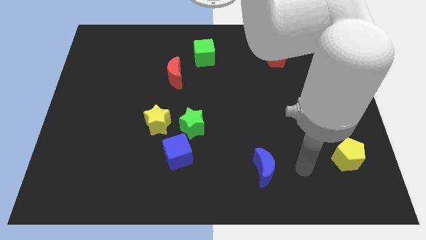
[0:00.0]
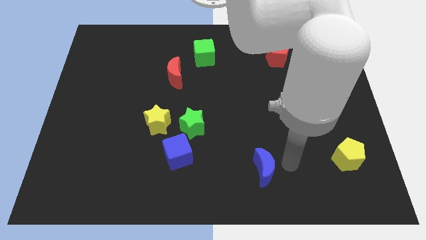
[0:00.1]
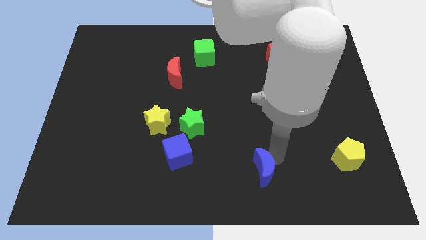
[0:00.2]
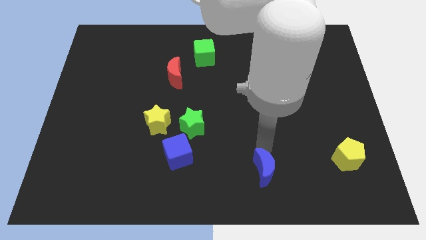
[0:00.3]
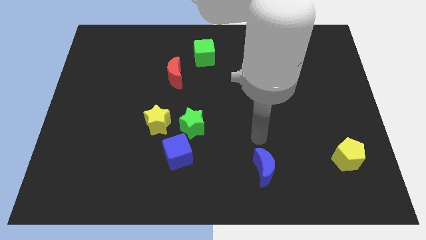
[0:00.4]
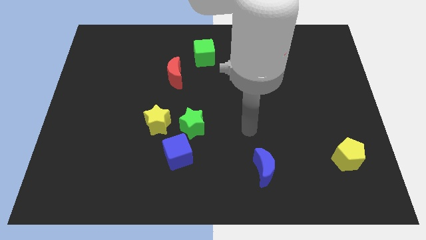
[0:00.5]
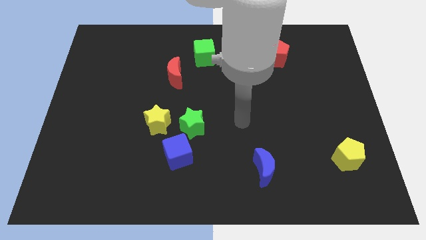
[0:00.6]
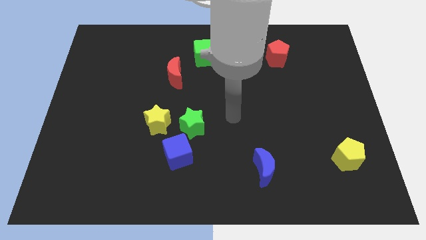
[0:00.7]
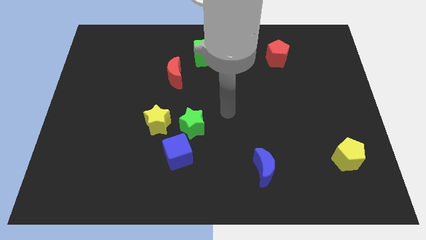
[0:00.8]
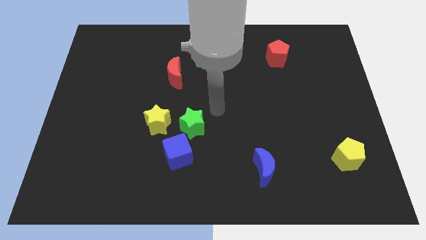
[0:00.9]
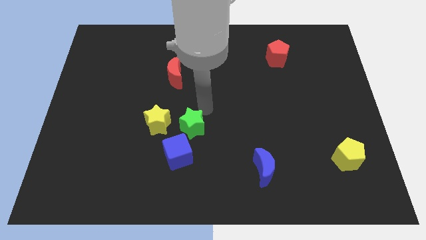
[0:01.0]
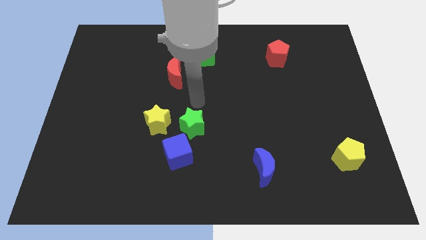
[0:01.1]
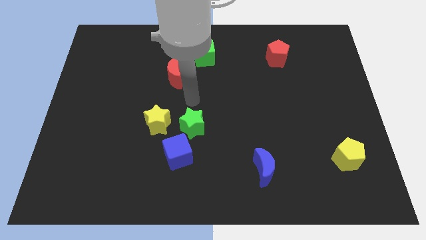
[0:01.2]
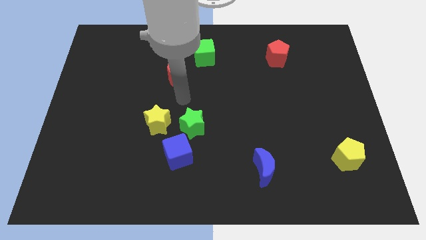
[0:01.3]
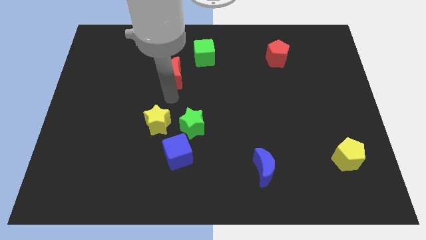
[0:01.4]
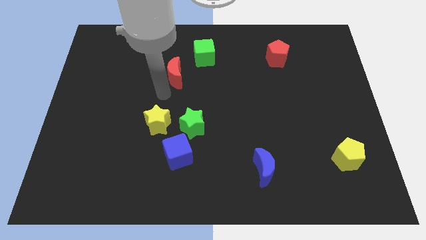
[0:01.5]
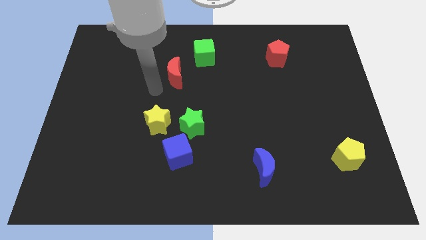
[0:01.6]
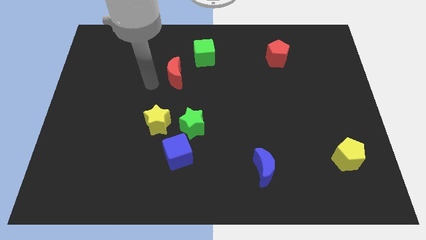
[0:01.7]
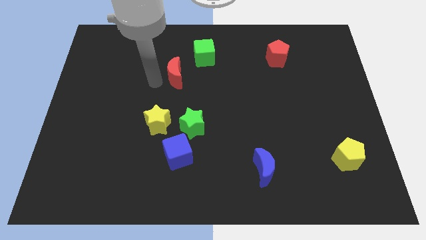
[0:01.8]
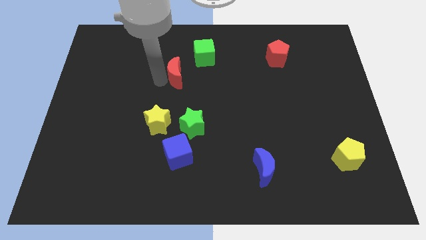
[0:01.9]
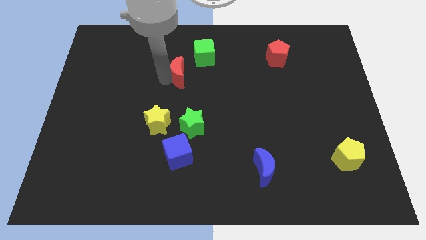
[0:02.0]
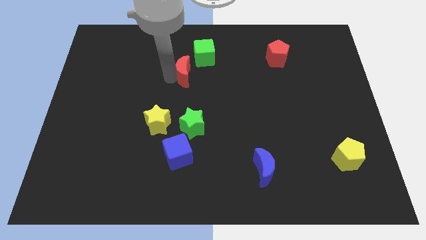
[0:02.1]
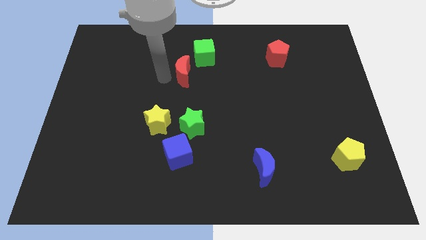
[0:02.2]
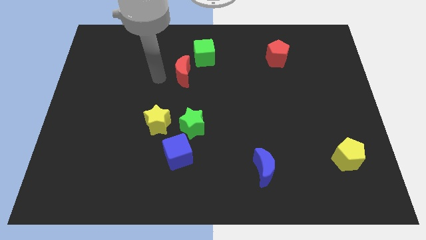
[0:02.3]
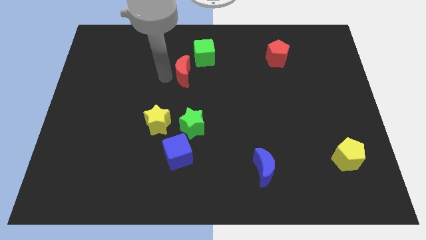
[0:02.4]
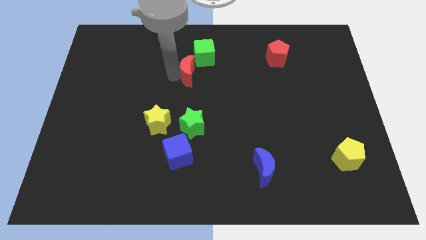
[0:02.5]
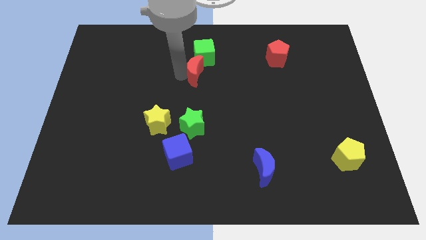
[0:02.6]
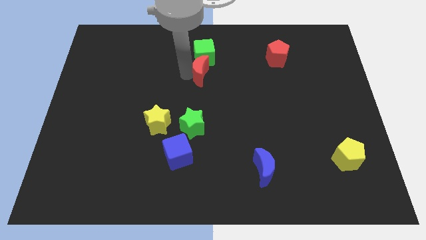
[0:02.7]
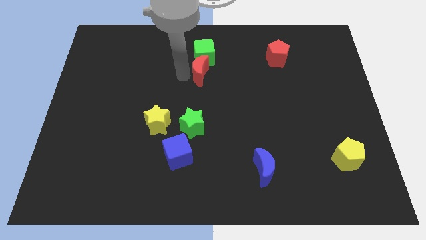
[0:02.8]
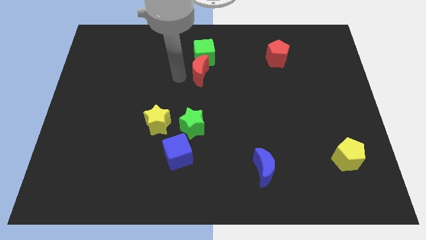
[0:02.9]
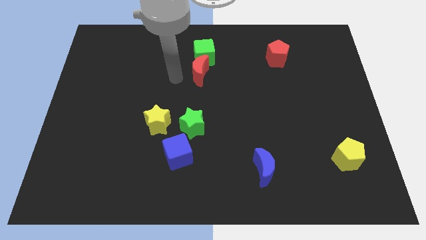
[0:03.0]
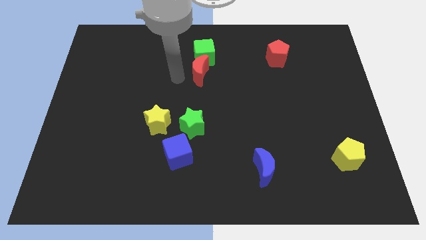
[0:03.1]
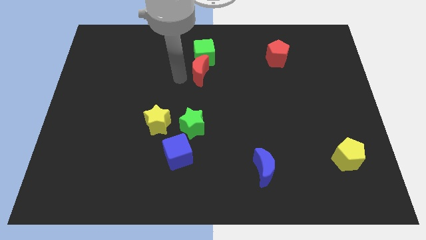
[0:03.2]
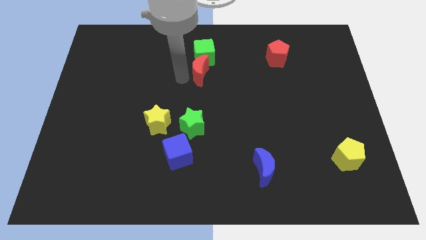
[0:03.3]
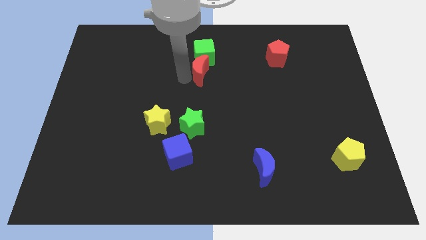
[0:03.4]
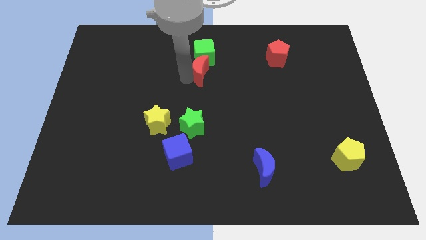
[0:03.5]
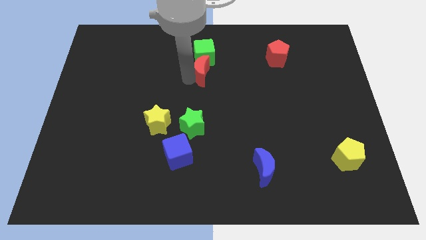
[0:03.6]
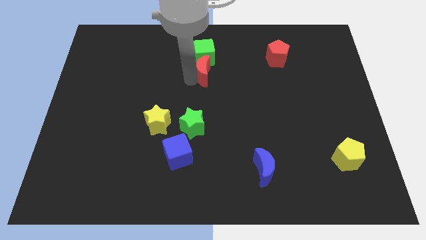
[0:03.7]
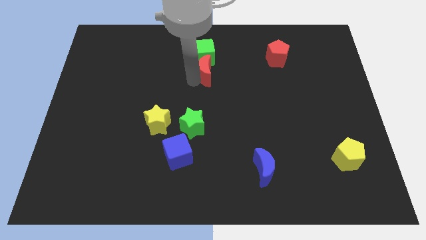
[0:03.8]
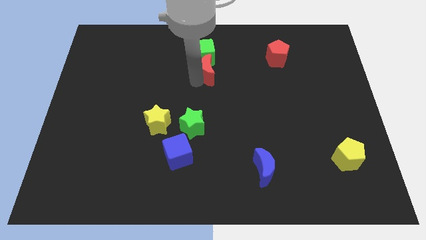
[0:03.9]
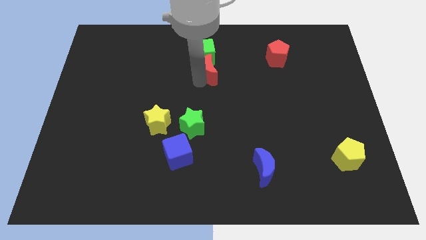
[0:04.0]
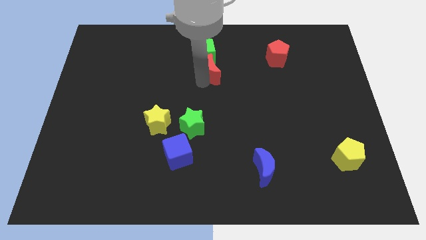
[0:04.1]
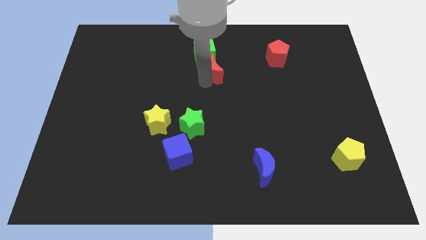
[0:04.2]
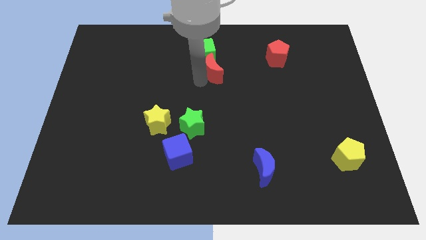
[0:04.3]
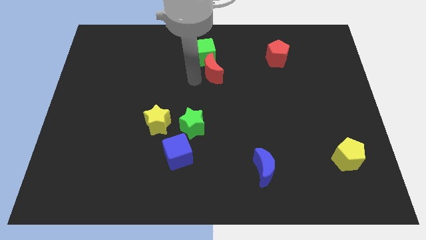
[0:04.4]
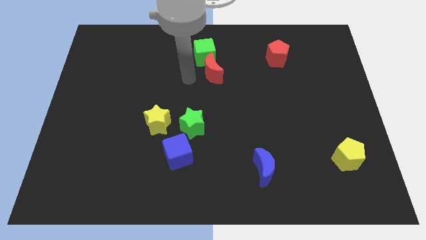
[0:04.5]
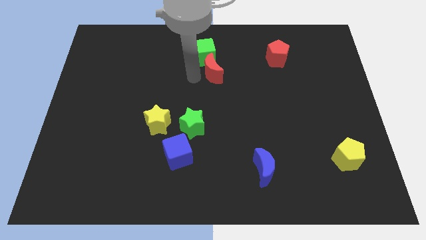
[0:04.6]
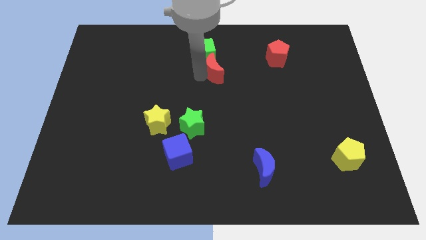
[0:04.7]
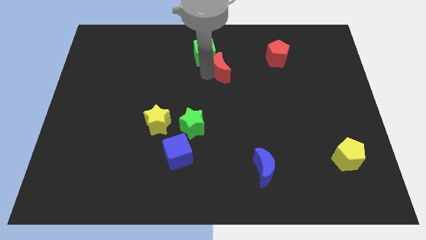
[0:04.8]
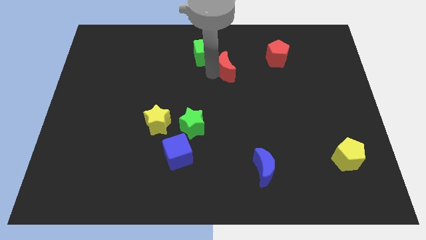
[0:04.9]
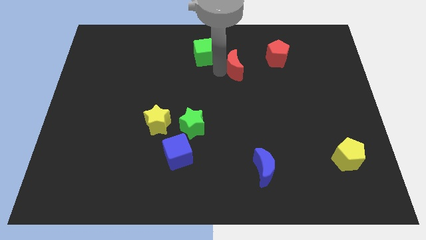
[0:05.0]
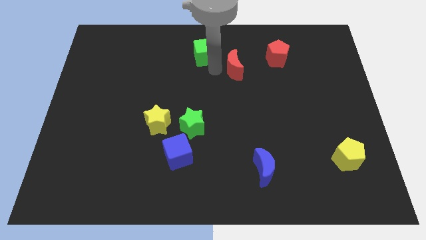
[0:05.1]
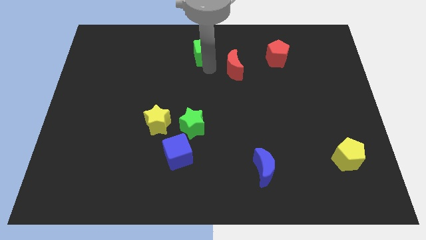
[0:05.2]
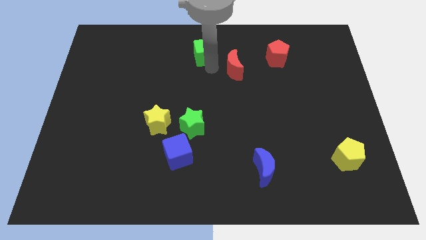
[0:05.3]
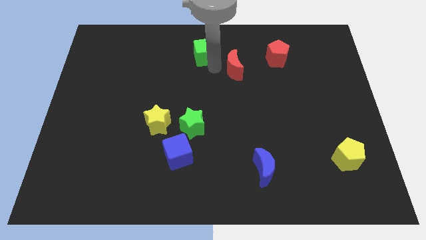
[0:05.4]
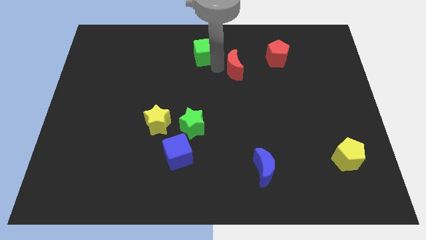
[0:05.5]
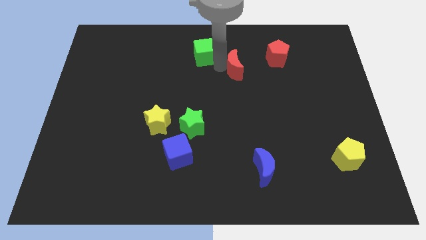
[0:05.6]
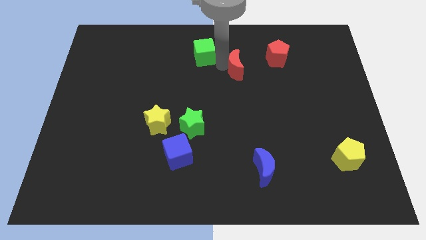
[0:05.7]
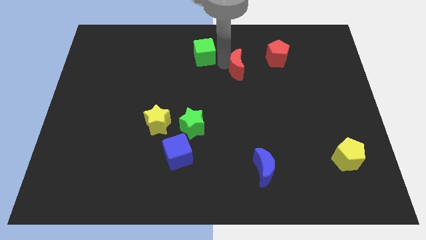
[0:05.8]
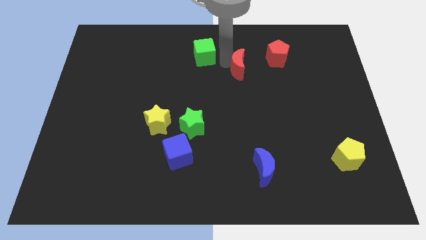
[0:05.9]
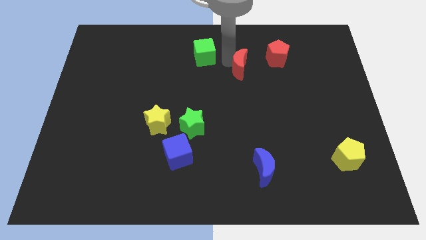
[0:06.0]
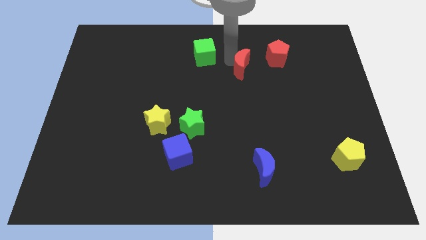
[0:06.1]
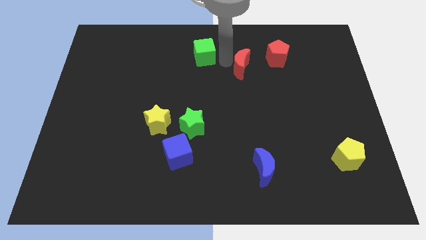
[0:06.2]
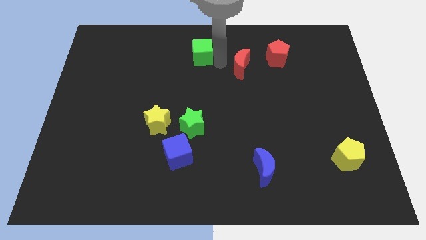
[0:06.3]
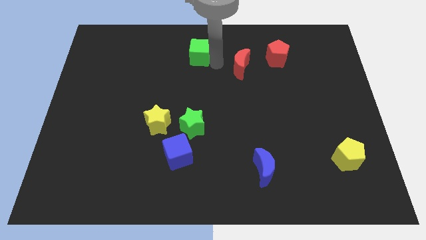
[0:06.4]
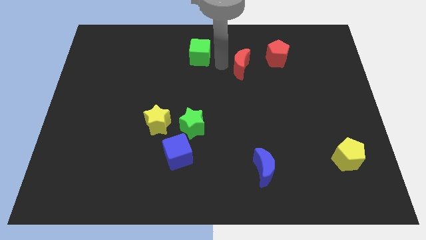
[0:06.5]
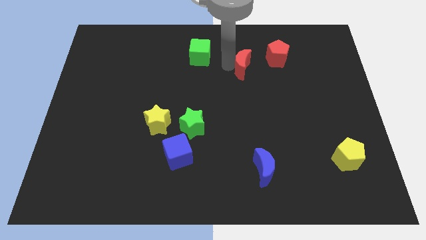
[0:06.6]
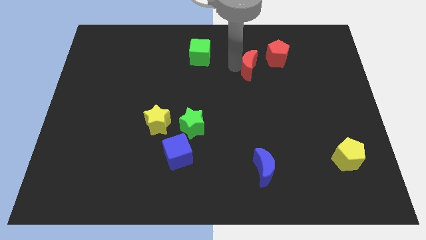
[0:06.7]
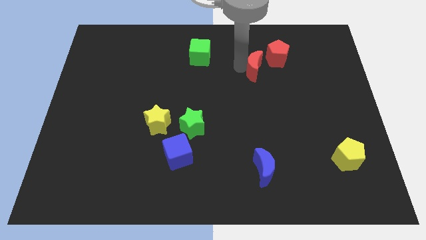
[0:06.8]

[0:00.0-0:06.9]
push the red moon to the right

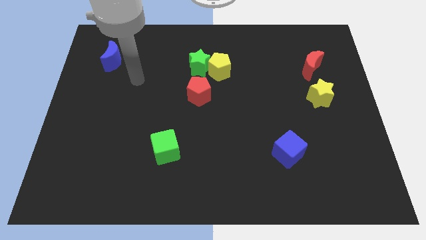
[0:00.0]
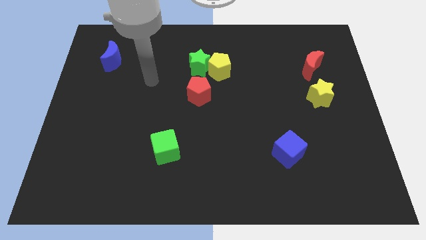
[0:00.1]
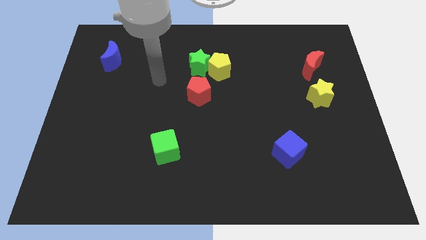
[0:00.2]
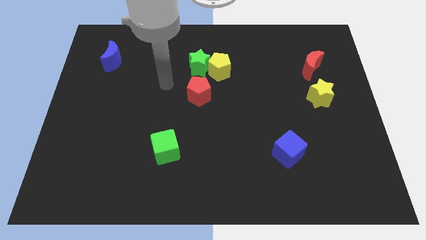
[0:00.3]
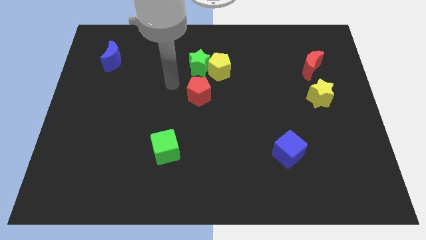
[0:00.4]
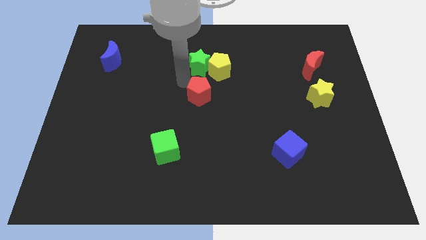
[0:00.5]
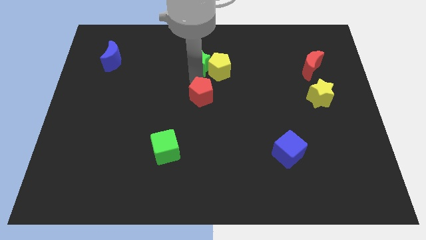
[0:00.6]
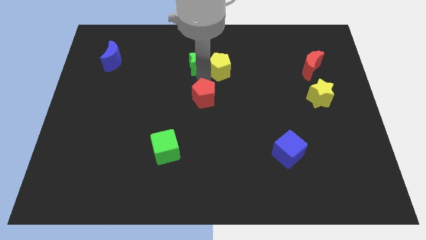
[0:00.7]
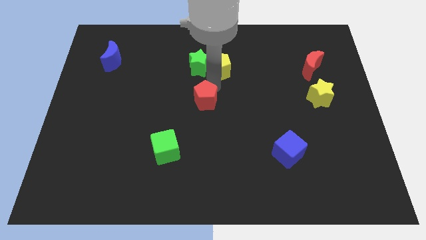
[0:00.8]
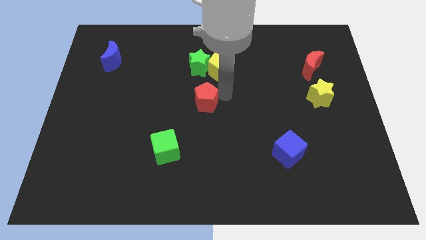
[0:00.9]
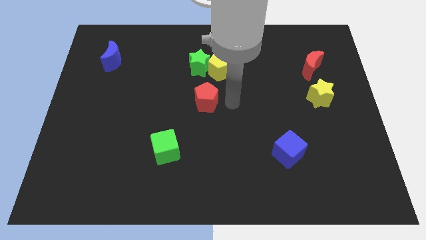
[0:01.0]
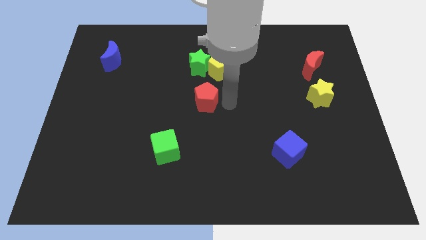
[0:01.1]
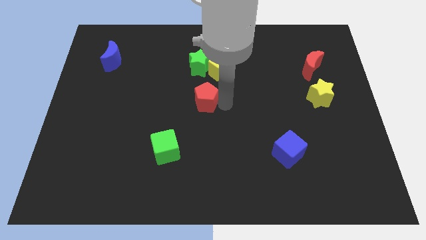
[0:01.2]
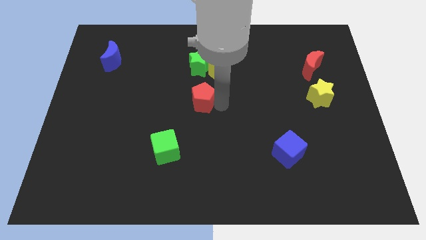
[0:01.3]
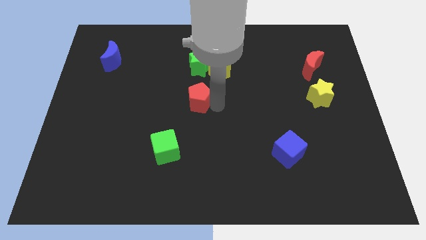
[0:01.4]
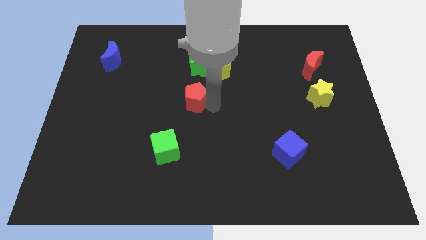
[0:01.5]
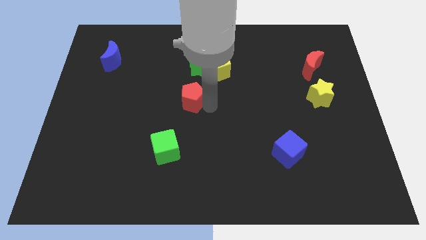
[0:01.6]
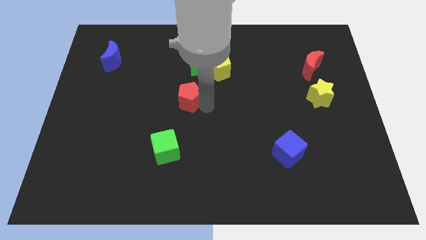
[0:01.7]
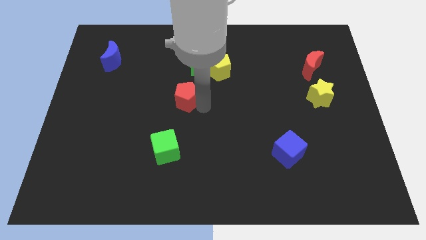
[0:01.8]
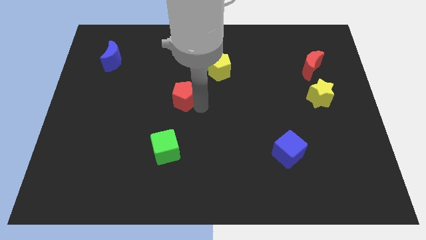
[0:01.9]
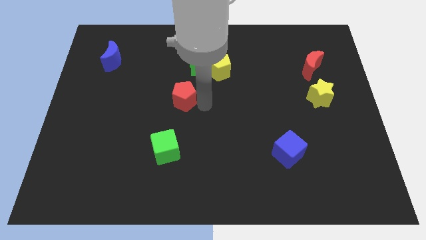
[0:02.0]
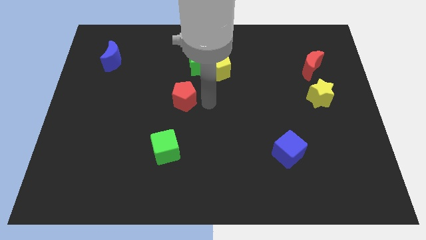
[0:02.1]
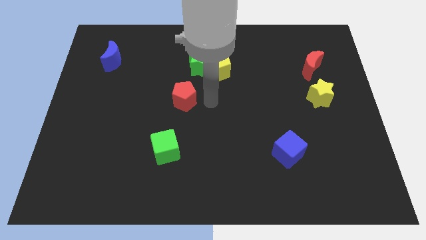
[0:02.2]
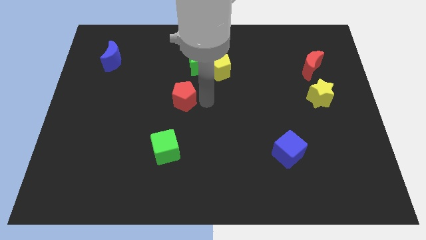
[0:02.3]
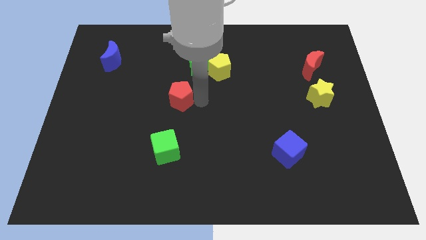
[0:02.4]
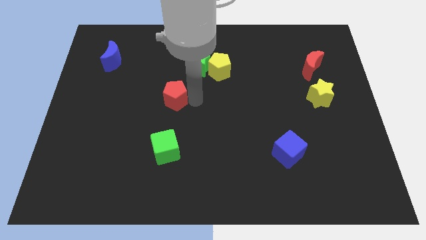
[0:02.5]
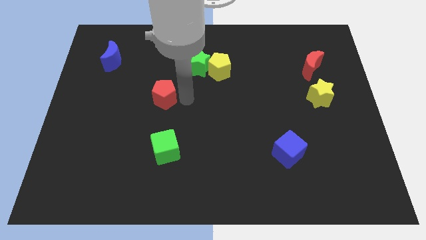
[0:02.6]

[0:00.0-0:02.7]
slide the red pentagon left a bit
